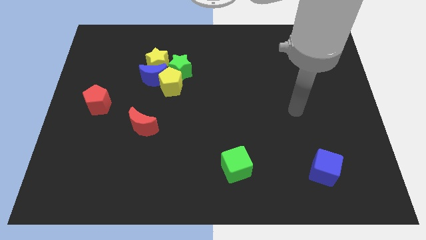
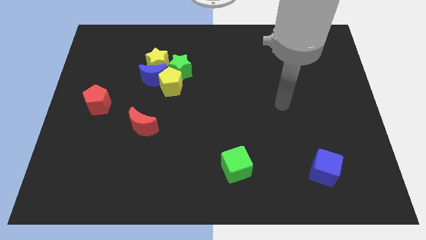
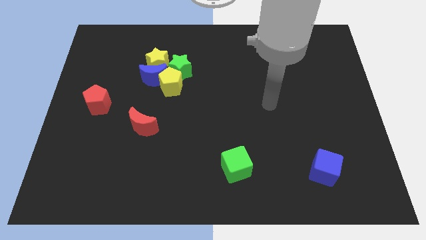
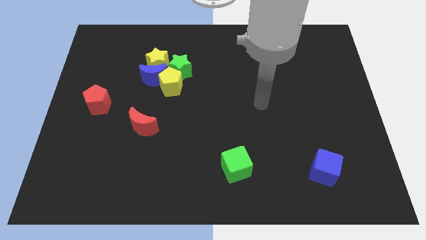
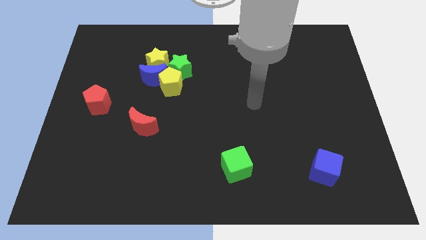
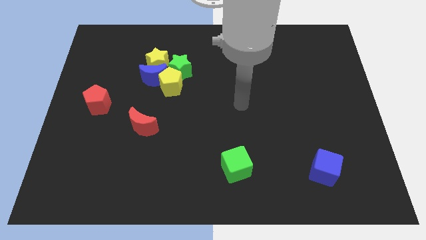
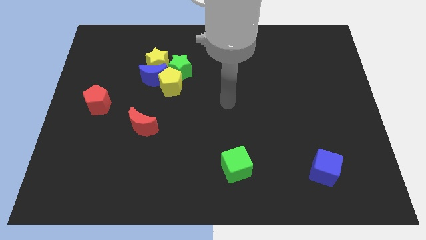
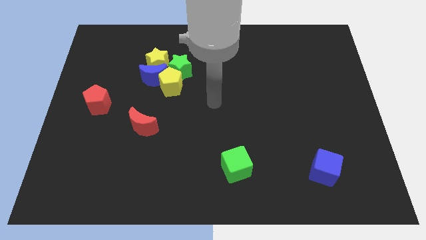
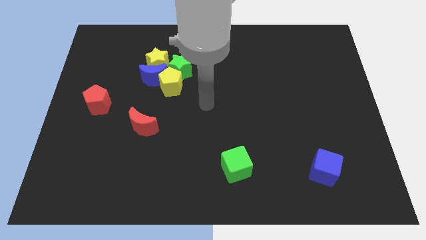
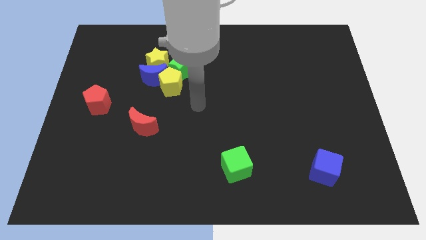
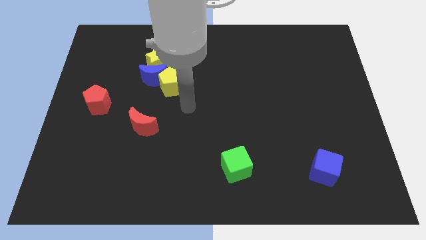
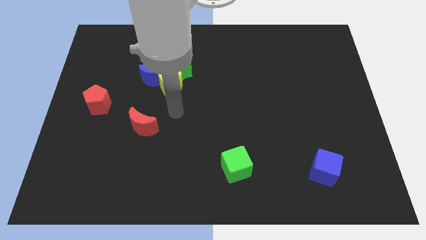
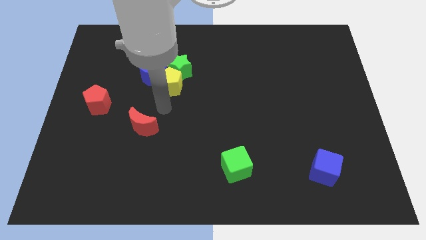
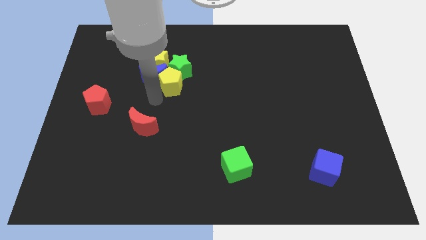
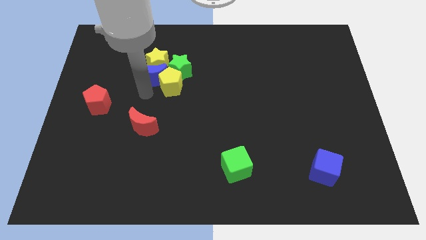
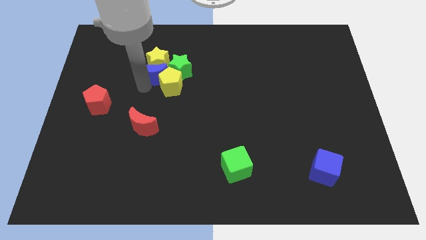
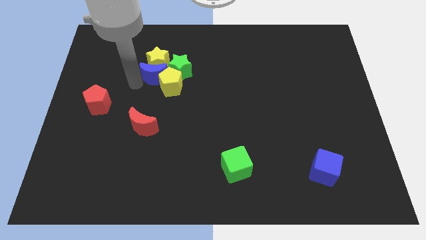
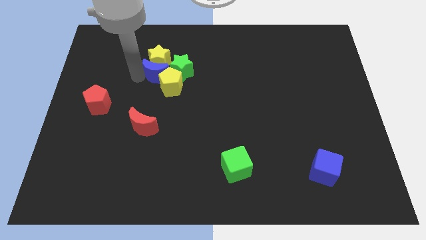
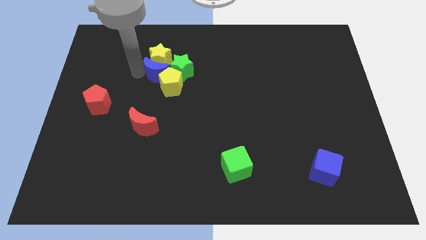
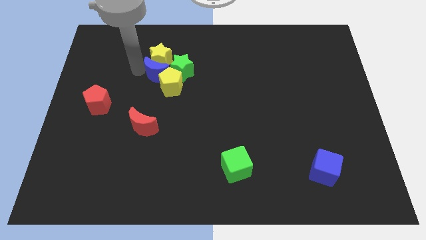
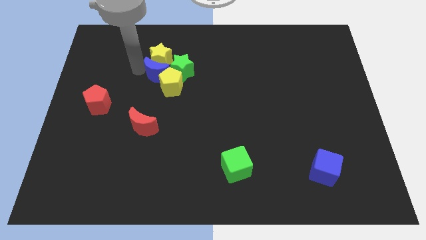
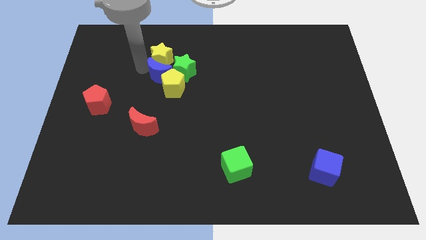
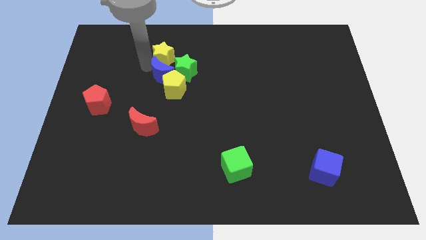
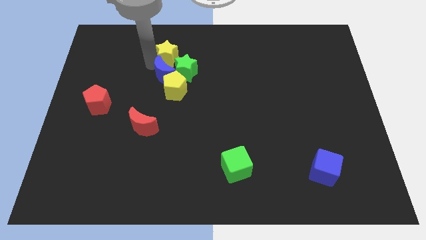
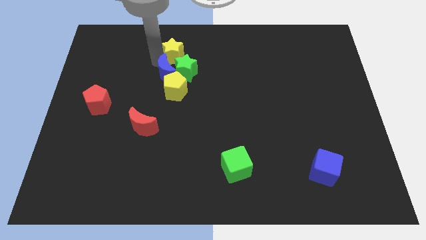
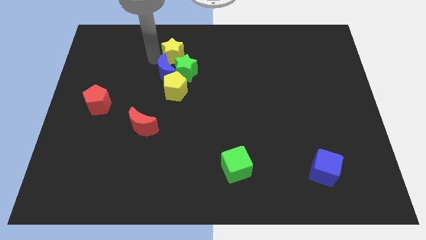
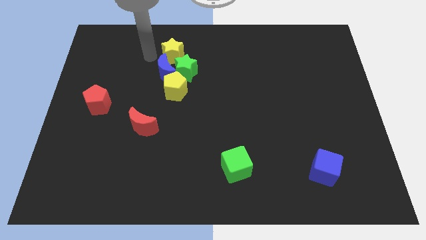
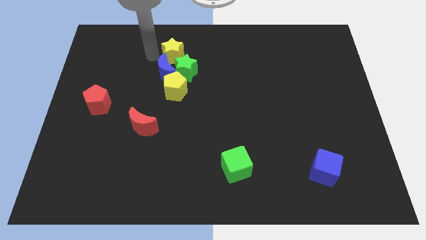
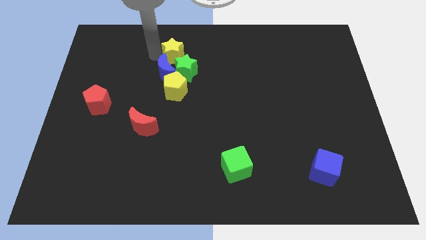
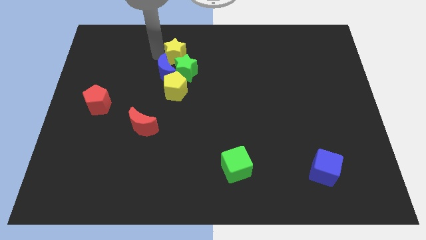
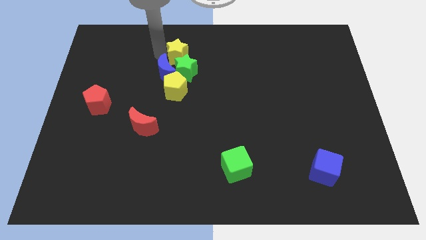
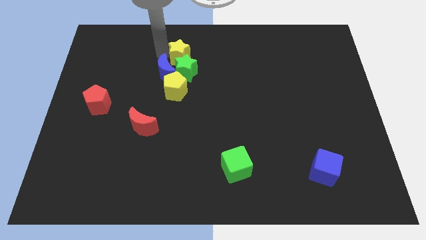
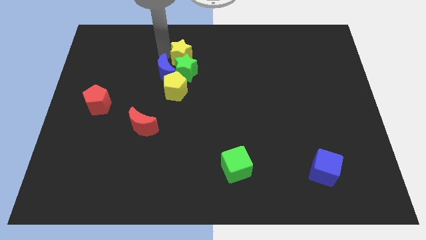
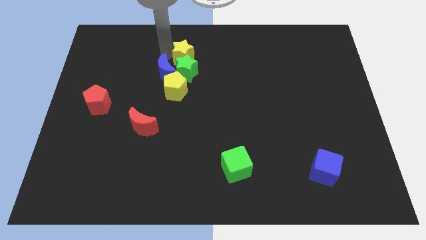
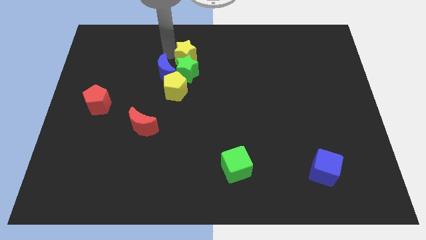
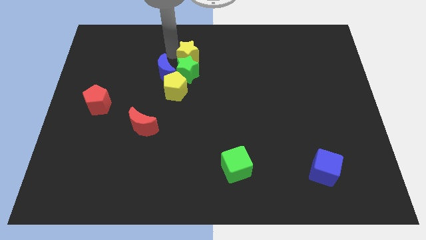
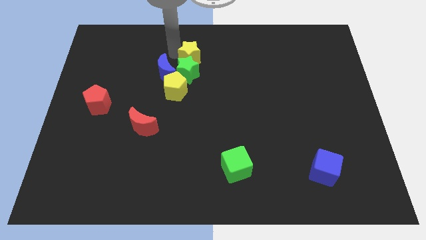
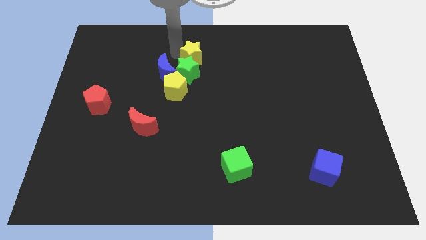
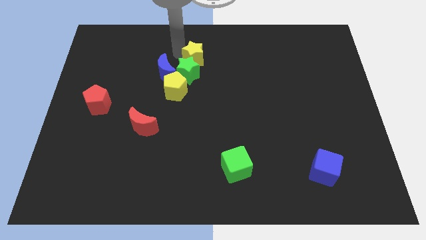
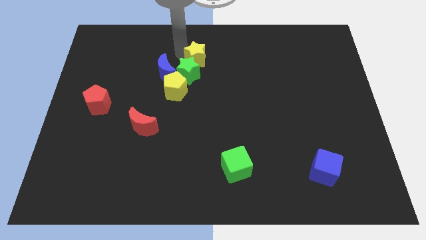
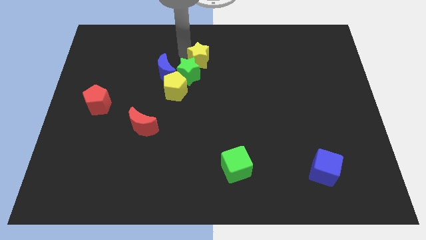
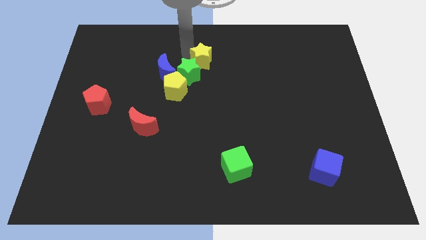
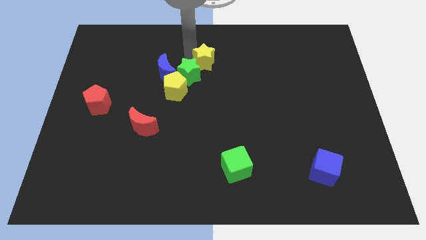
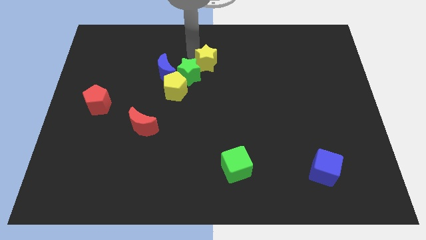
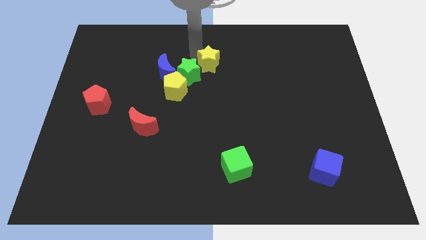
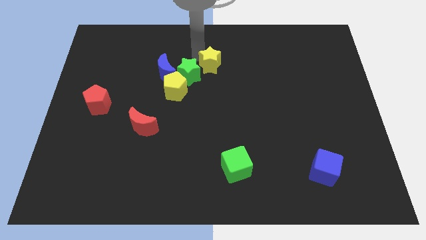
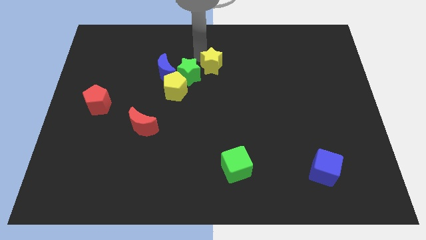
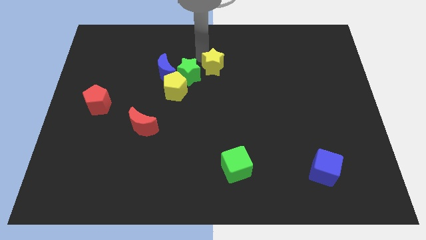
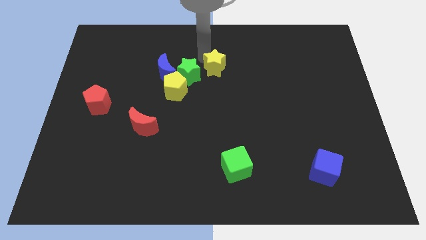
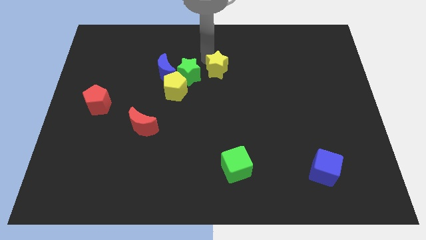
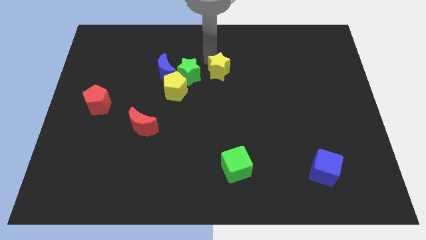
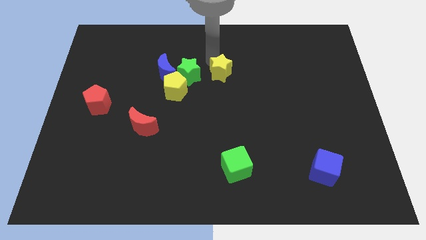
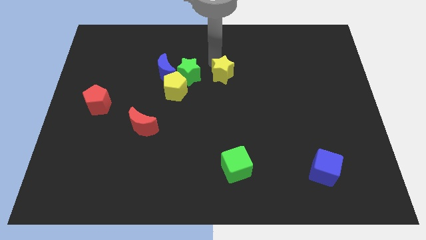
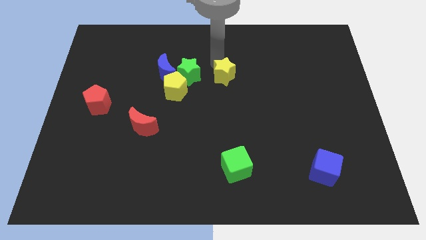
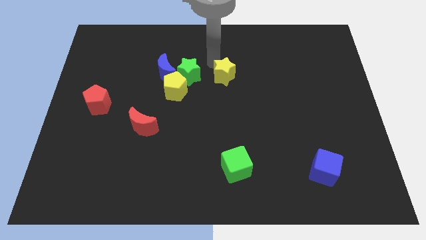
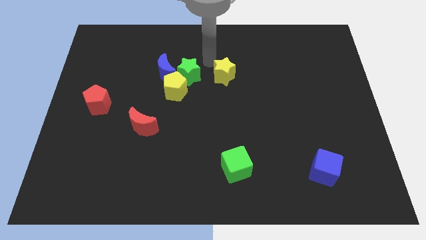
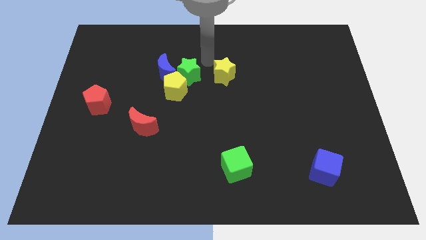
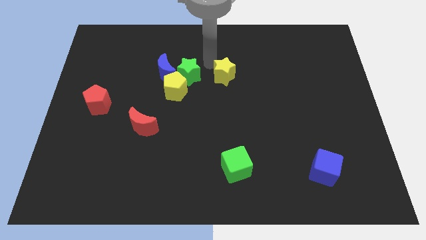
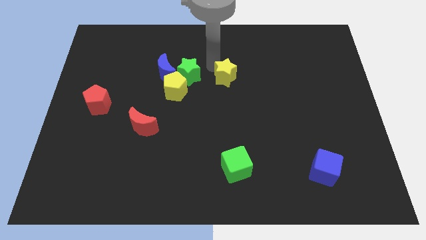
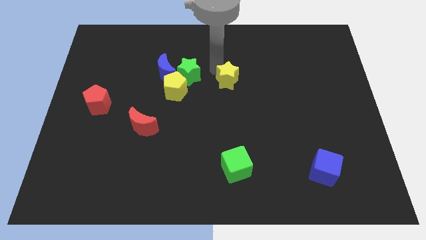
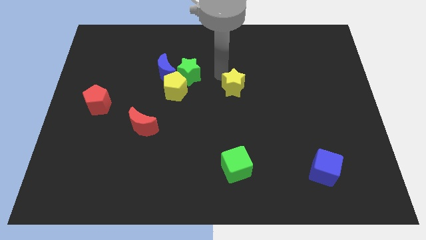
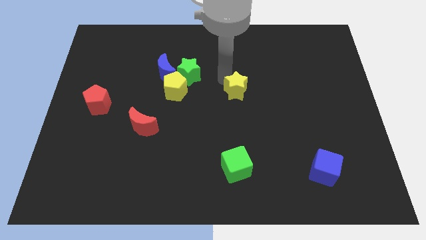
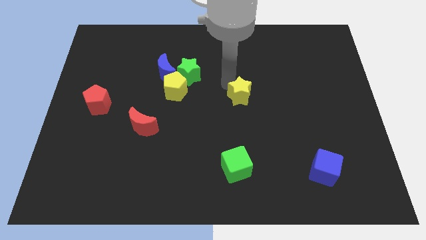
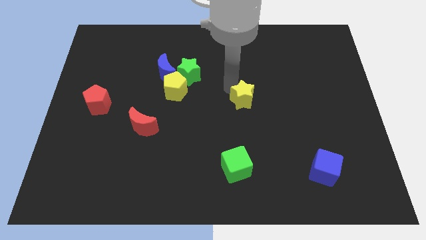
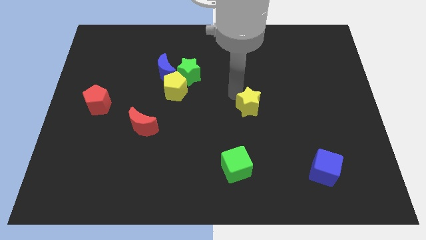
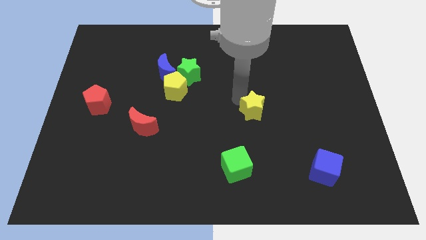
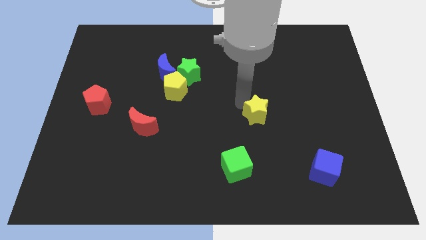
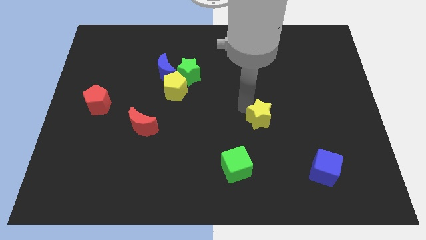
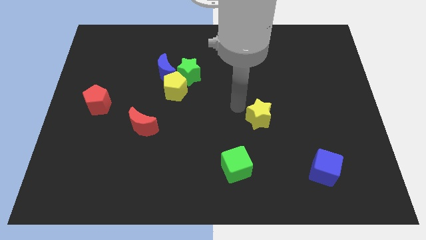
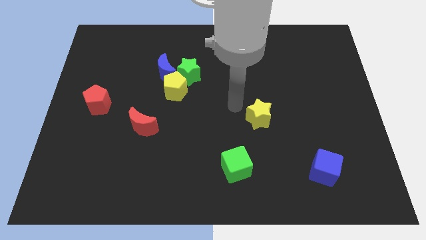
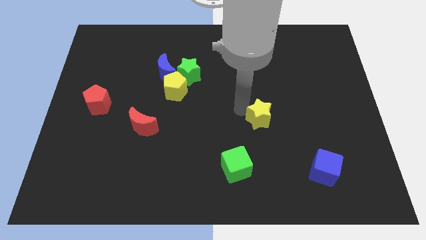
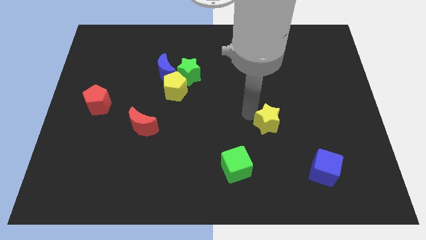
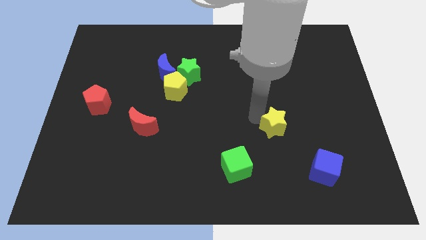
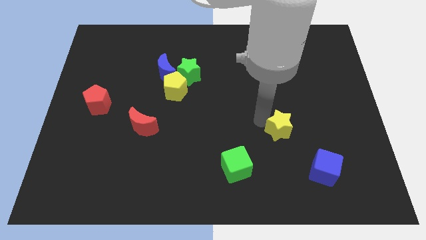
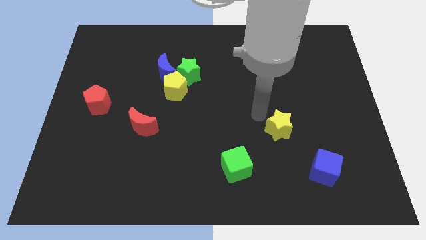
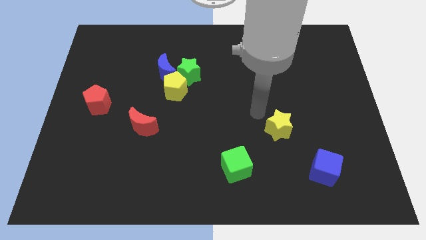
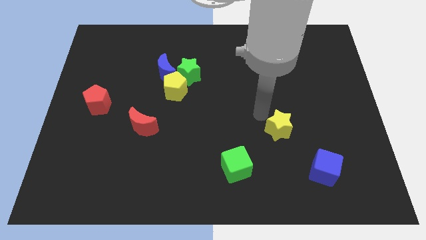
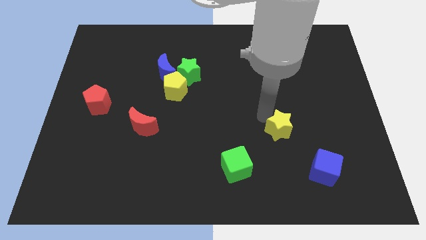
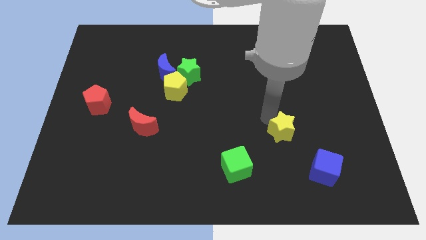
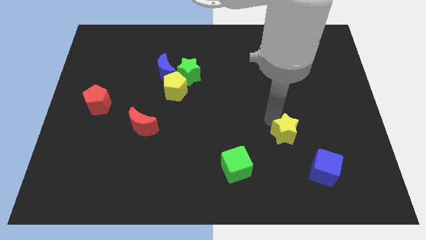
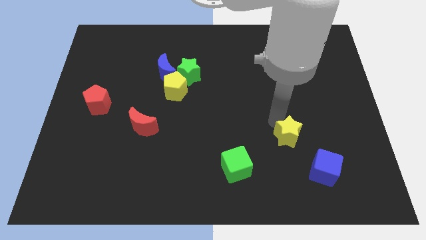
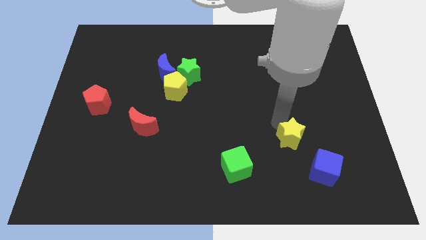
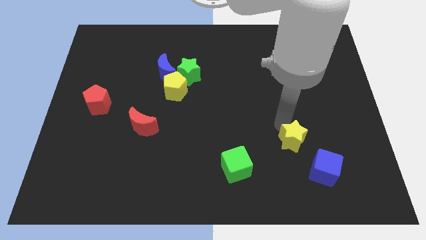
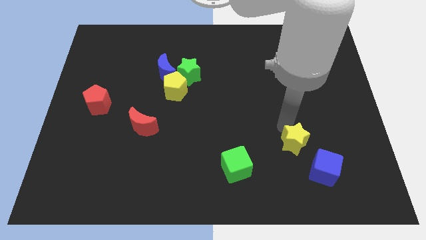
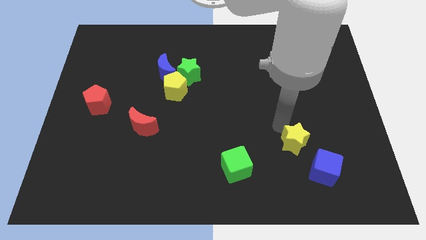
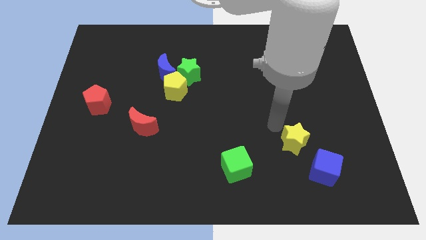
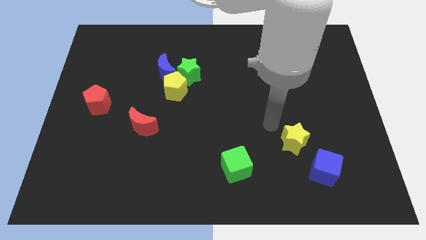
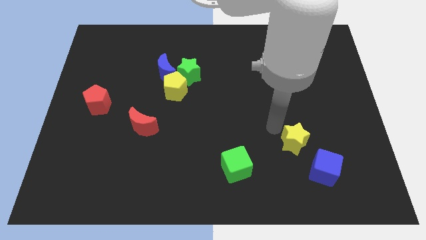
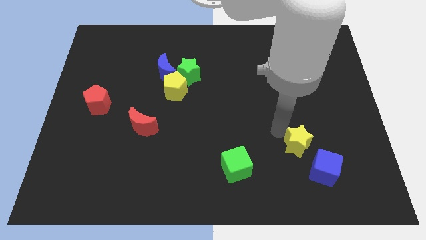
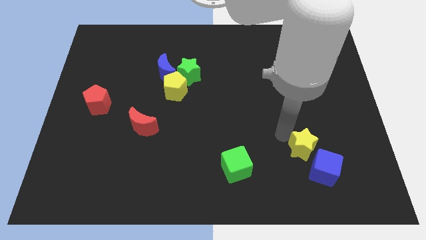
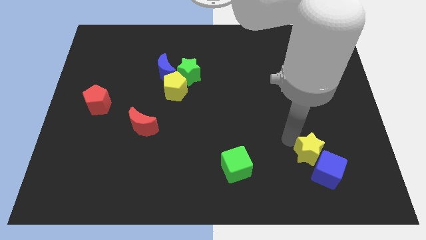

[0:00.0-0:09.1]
slide the yellow star to the blue cube
